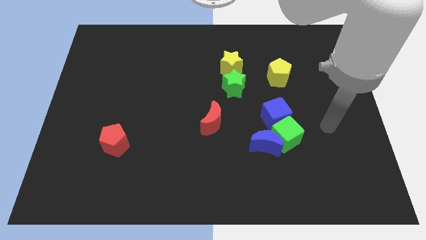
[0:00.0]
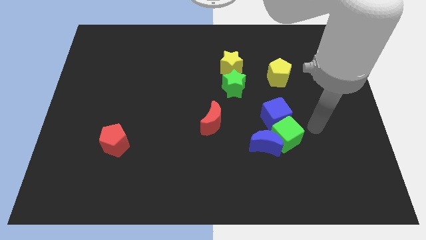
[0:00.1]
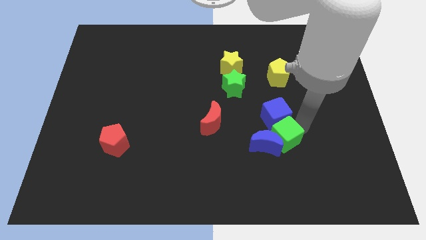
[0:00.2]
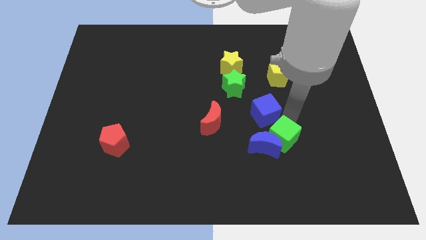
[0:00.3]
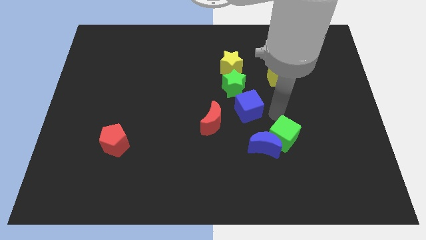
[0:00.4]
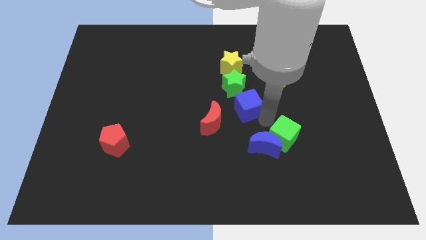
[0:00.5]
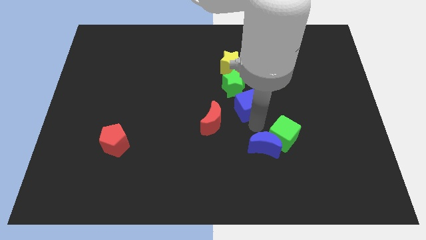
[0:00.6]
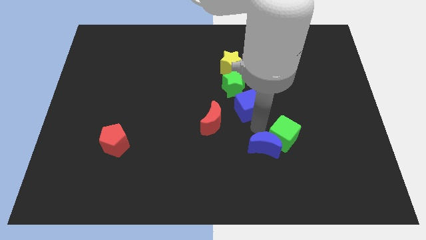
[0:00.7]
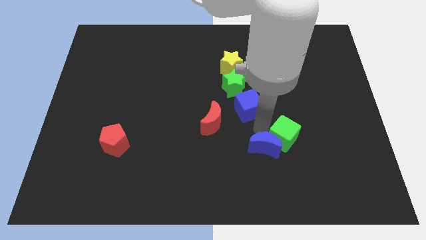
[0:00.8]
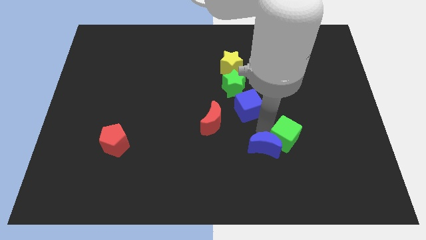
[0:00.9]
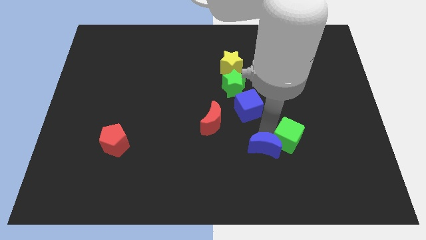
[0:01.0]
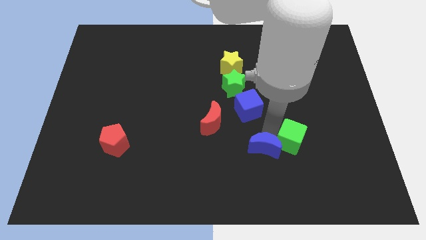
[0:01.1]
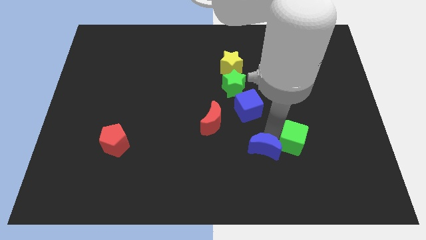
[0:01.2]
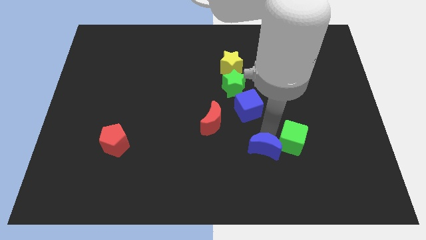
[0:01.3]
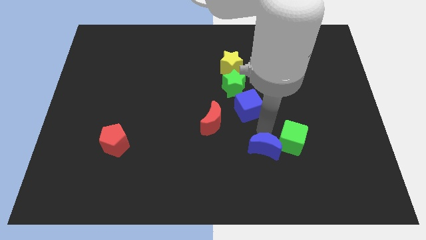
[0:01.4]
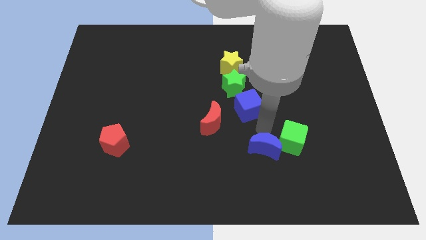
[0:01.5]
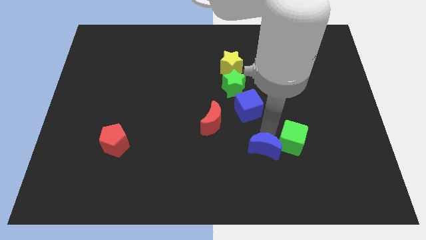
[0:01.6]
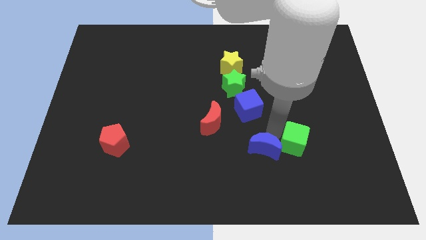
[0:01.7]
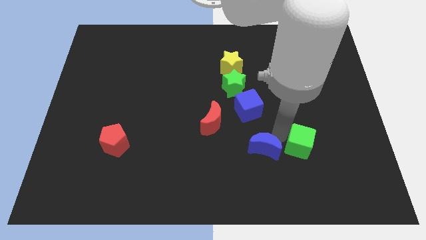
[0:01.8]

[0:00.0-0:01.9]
separate the green cube from the blue moon and blue cube

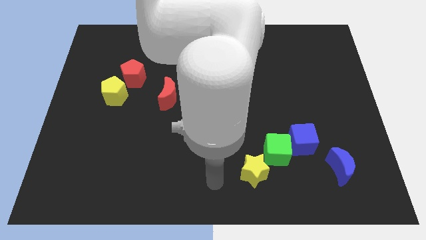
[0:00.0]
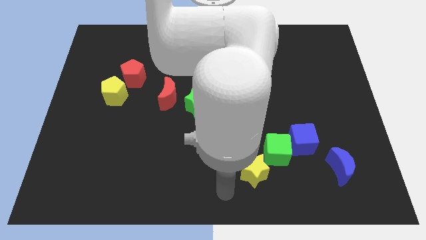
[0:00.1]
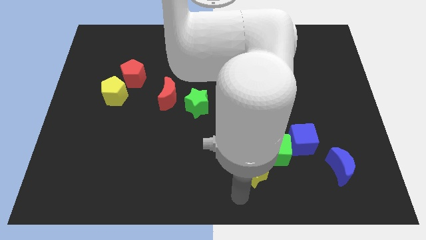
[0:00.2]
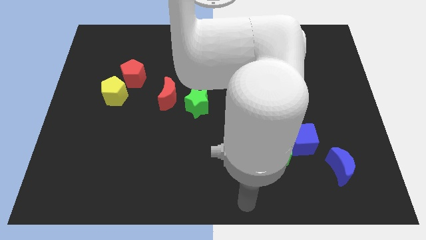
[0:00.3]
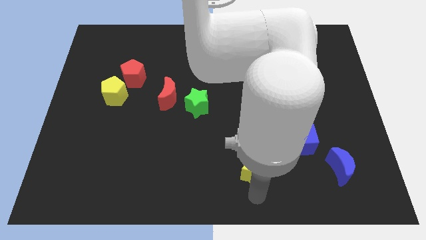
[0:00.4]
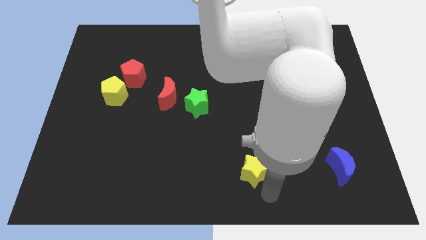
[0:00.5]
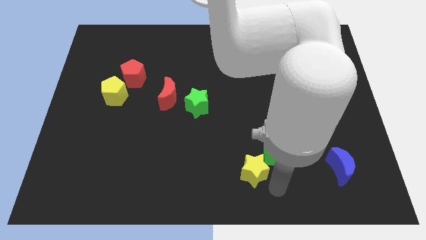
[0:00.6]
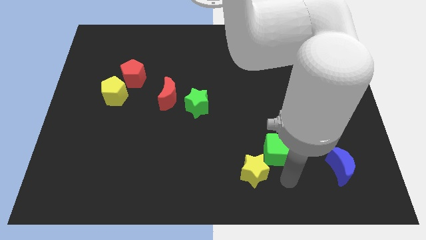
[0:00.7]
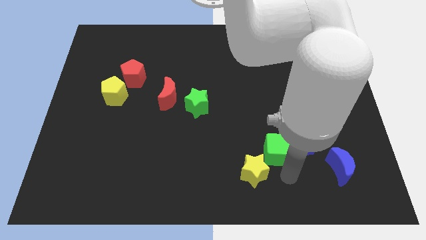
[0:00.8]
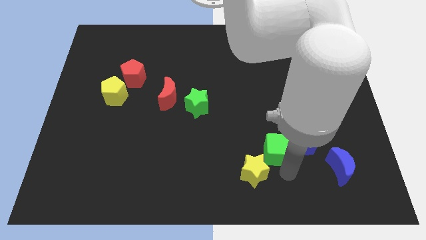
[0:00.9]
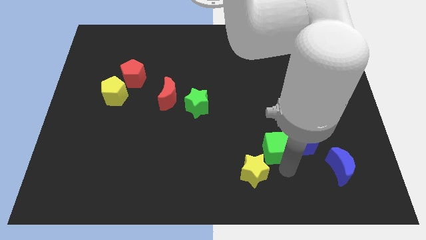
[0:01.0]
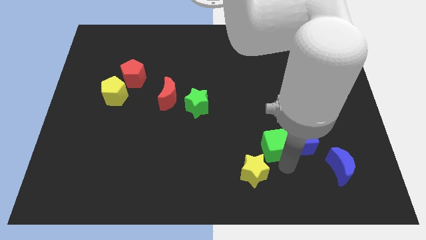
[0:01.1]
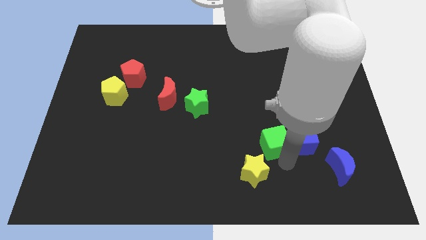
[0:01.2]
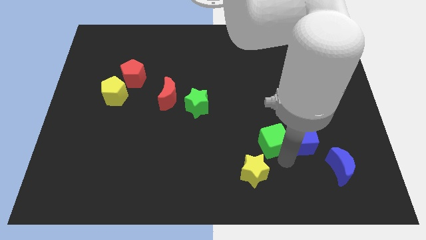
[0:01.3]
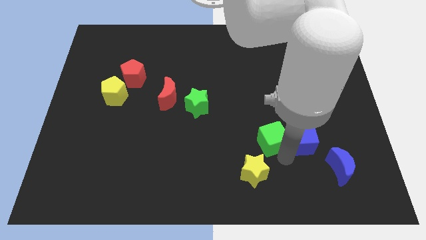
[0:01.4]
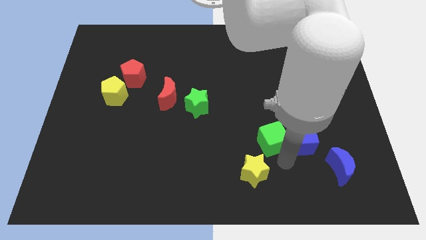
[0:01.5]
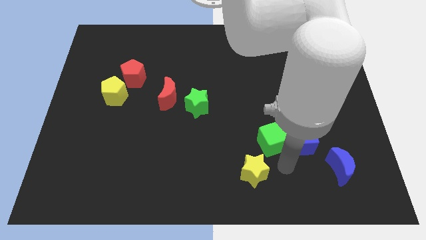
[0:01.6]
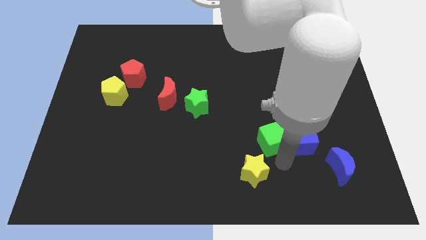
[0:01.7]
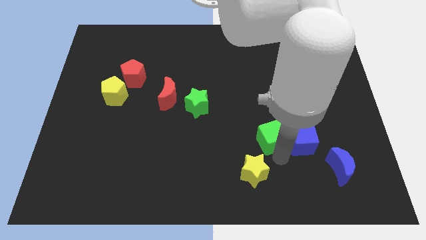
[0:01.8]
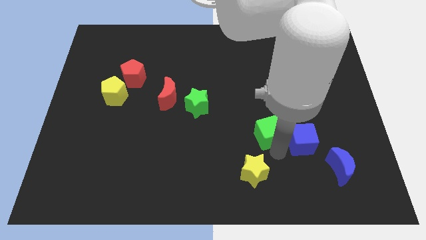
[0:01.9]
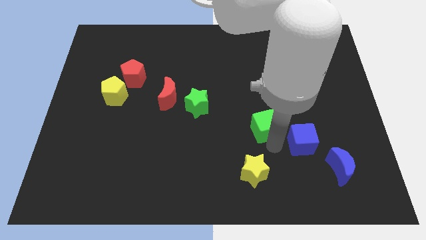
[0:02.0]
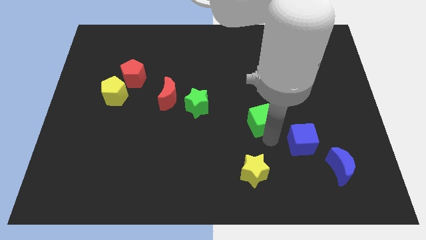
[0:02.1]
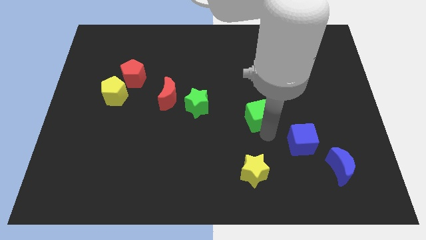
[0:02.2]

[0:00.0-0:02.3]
move the green cube away from the blue cube and yellow star

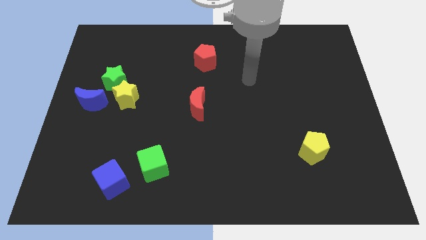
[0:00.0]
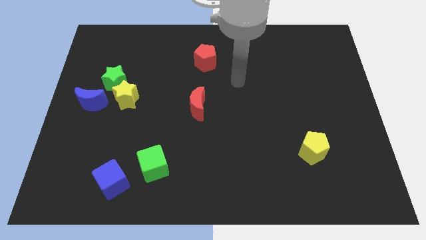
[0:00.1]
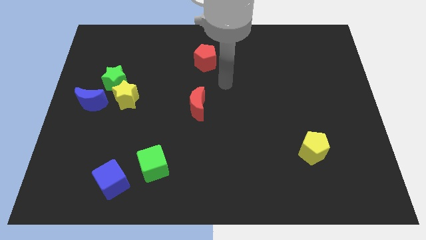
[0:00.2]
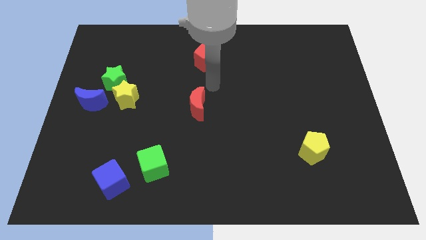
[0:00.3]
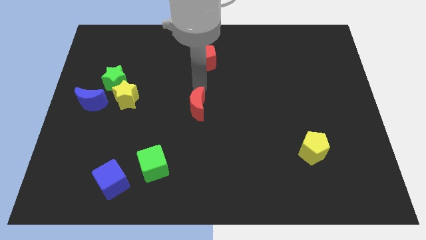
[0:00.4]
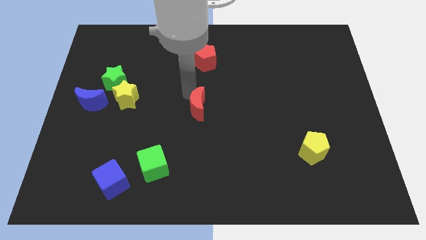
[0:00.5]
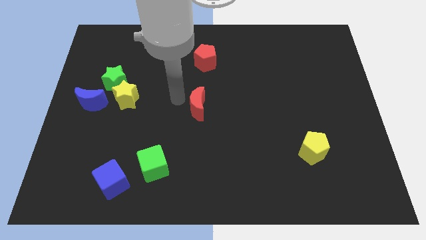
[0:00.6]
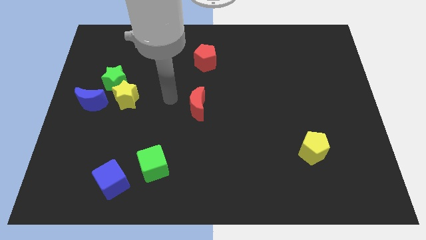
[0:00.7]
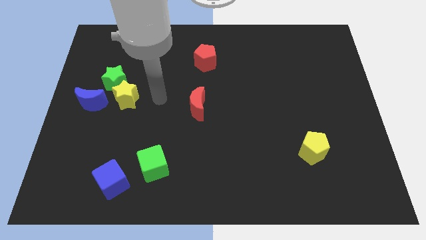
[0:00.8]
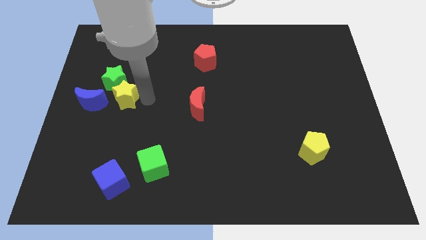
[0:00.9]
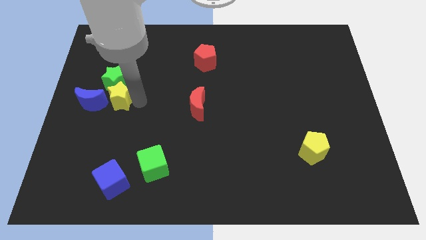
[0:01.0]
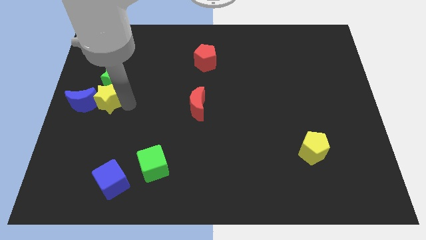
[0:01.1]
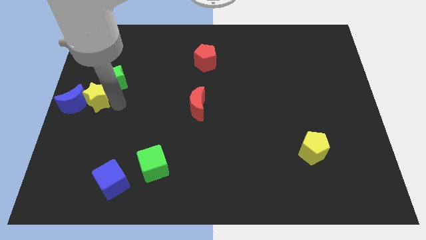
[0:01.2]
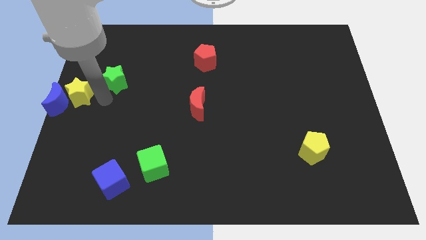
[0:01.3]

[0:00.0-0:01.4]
move the green star away from the yellow star and blue moon

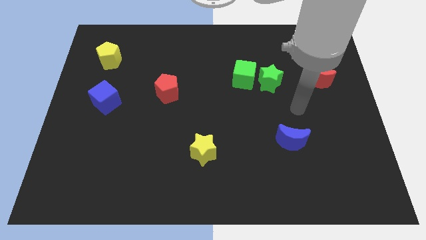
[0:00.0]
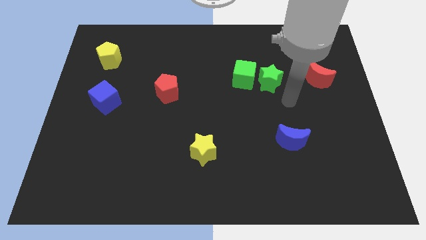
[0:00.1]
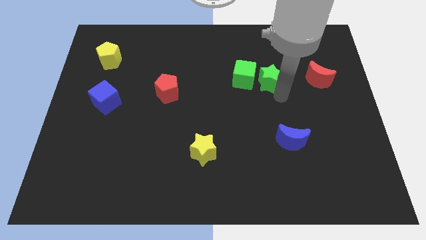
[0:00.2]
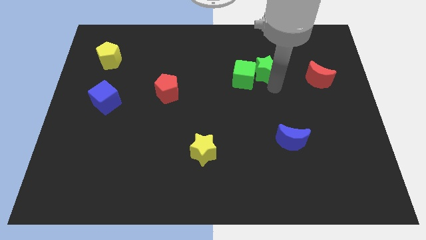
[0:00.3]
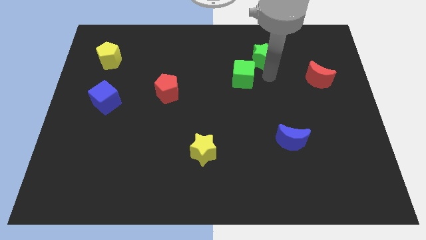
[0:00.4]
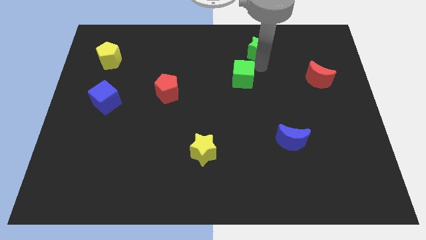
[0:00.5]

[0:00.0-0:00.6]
pull the green cube apart from the green star

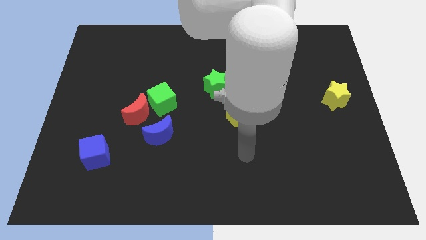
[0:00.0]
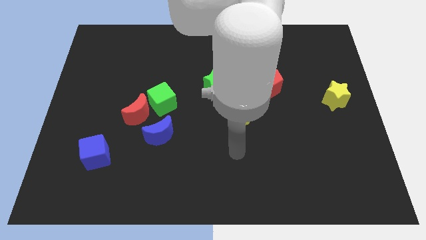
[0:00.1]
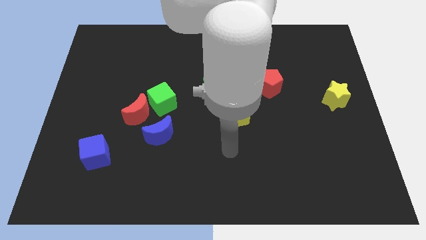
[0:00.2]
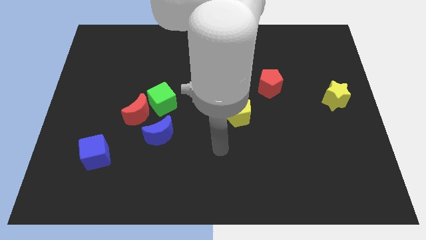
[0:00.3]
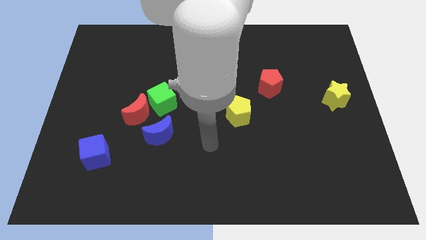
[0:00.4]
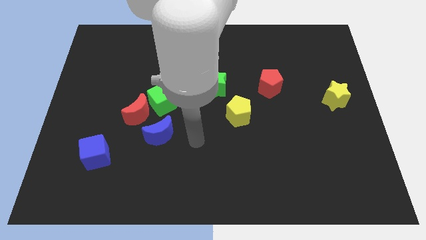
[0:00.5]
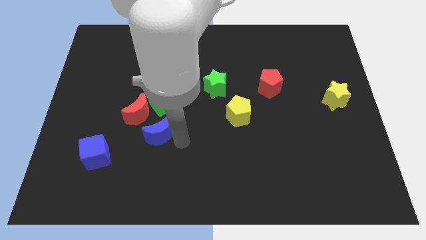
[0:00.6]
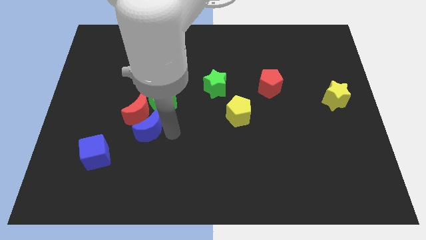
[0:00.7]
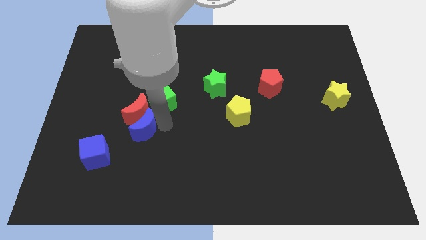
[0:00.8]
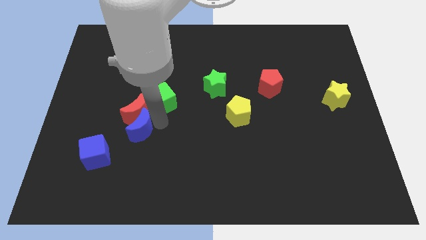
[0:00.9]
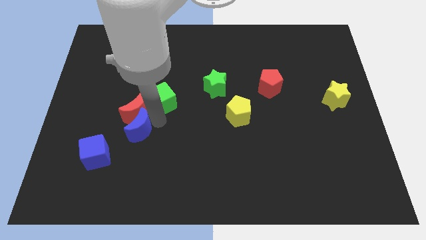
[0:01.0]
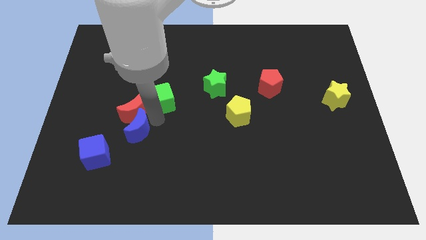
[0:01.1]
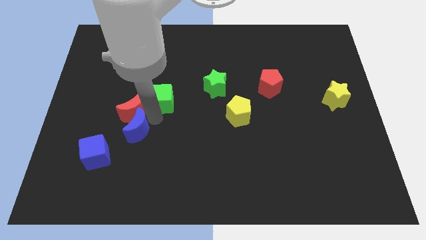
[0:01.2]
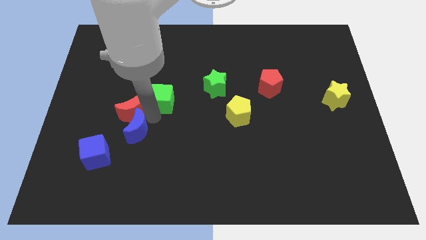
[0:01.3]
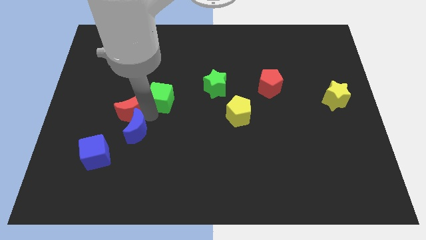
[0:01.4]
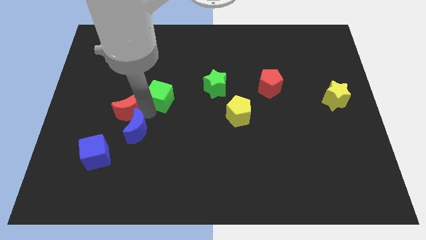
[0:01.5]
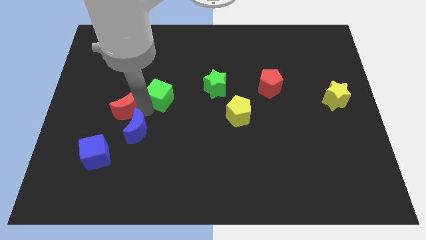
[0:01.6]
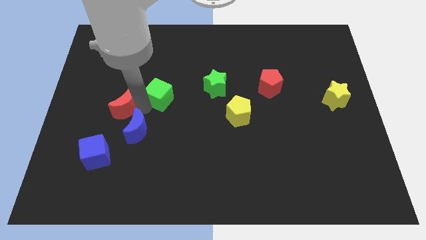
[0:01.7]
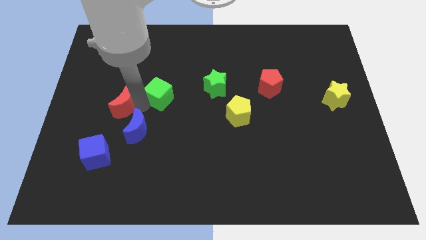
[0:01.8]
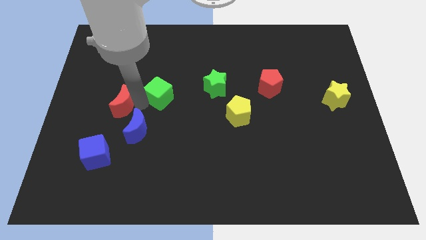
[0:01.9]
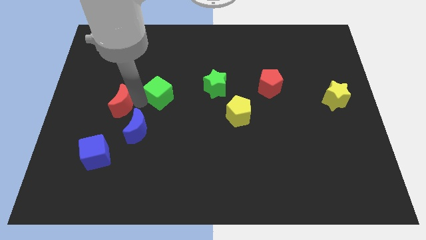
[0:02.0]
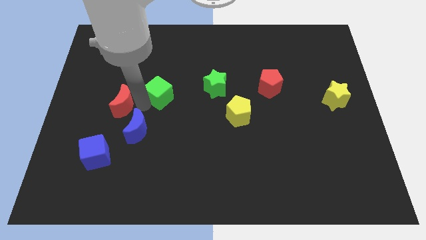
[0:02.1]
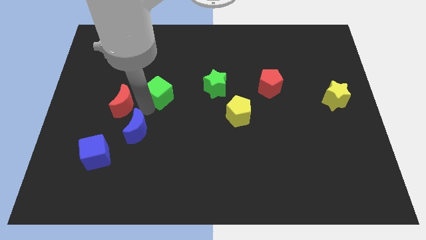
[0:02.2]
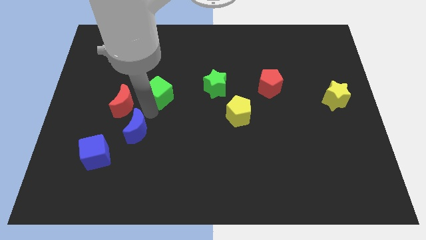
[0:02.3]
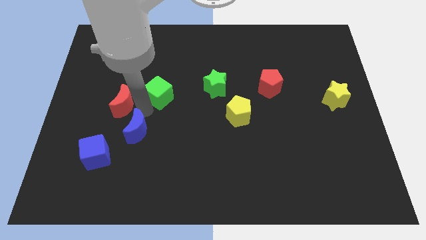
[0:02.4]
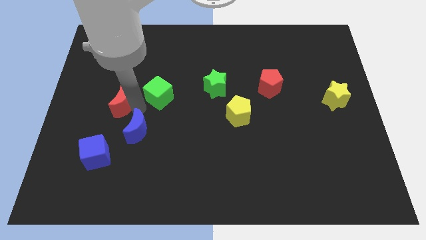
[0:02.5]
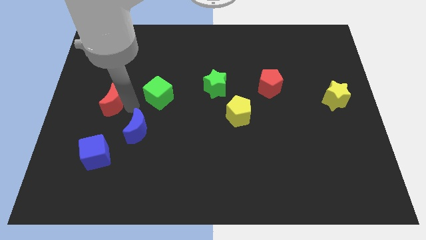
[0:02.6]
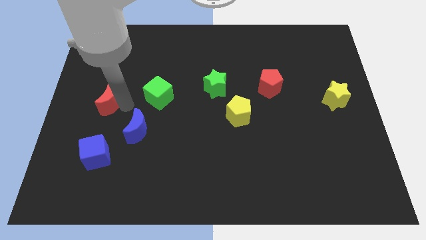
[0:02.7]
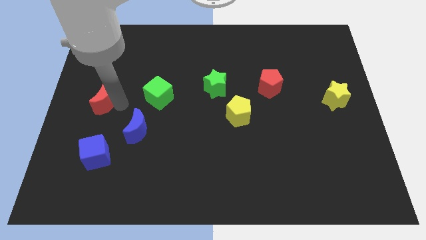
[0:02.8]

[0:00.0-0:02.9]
pull the red moon apart from the green cube and blue moon

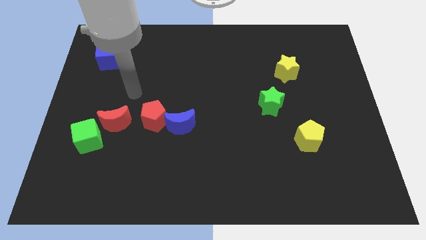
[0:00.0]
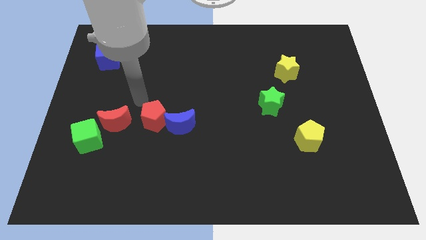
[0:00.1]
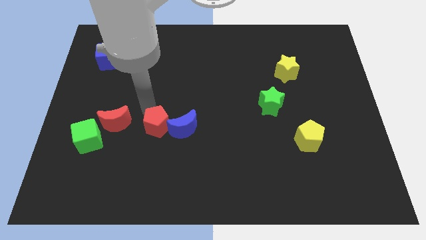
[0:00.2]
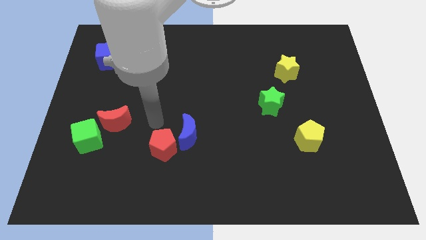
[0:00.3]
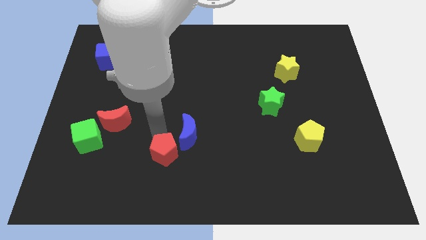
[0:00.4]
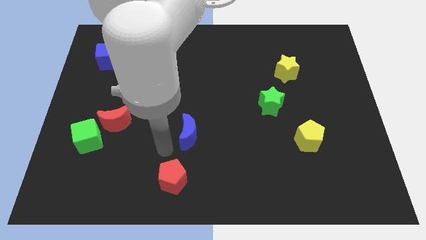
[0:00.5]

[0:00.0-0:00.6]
move the blue moon away from the red pentagon
